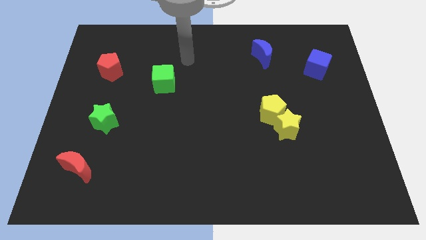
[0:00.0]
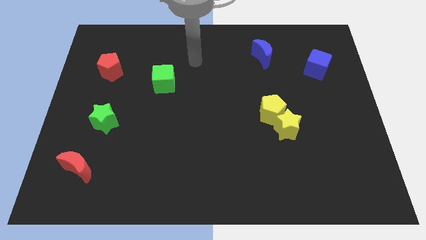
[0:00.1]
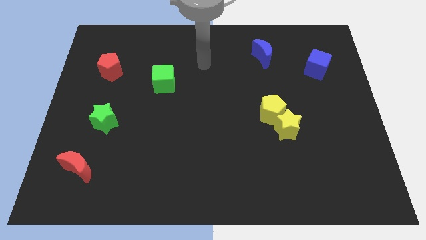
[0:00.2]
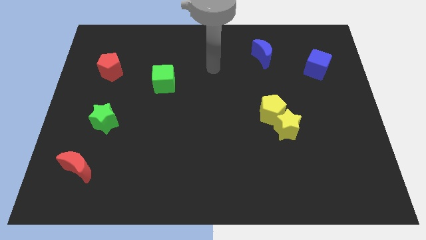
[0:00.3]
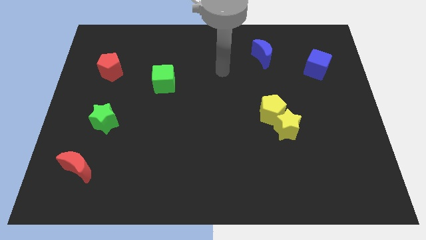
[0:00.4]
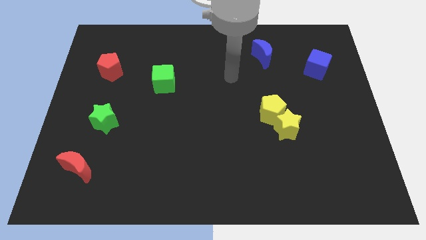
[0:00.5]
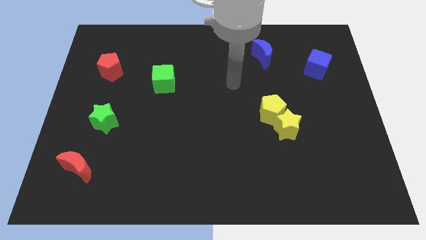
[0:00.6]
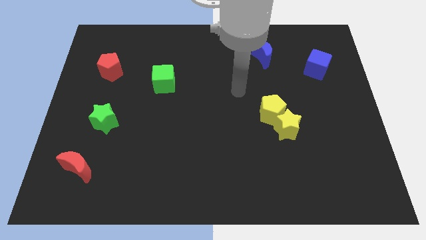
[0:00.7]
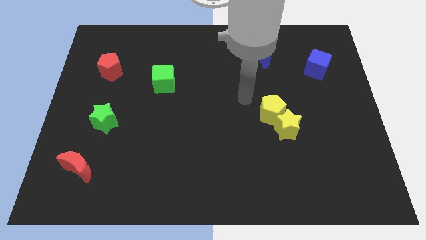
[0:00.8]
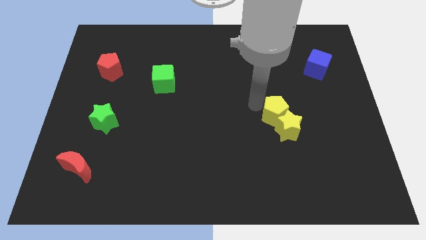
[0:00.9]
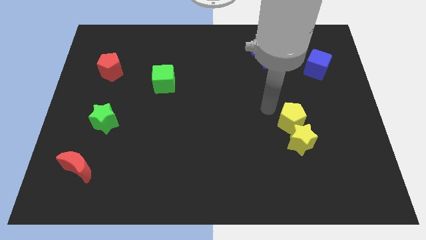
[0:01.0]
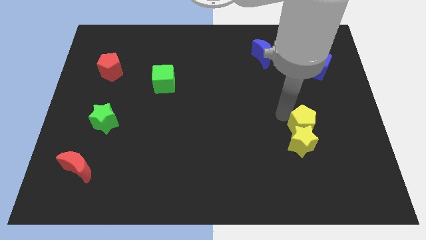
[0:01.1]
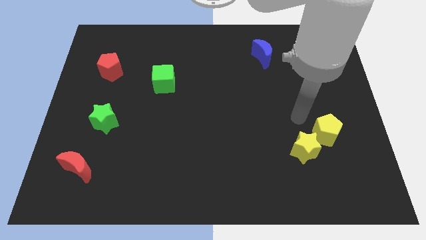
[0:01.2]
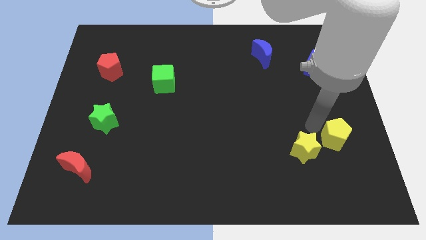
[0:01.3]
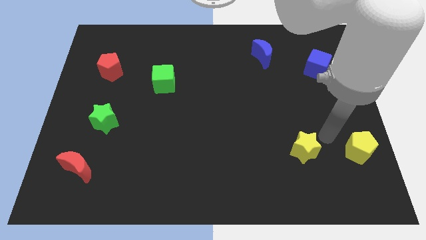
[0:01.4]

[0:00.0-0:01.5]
move the yellow star away from the yellow pentagon

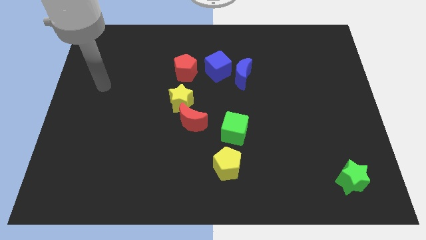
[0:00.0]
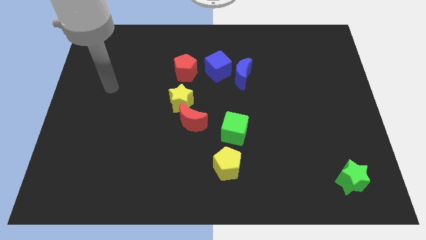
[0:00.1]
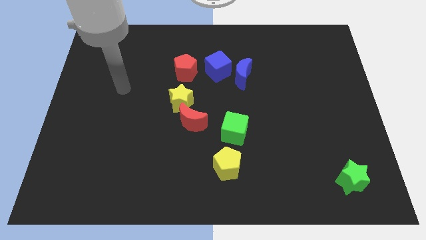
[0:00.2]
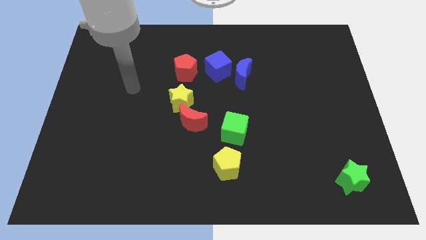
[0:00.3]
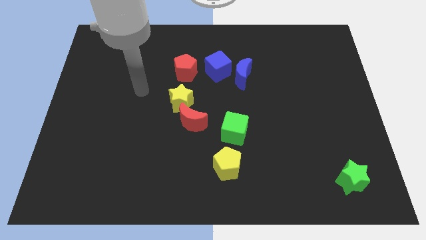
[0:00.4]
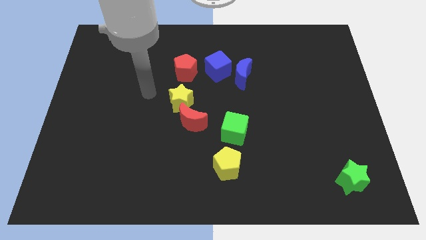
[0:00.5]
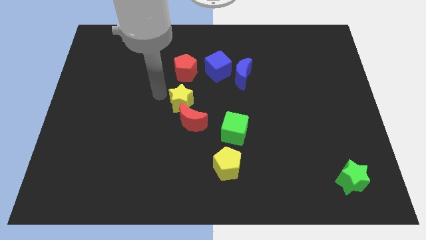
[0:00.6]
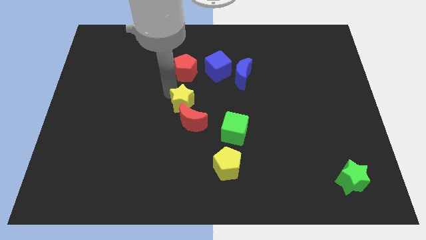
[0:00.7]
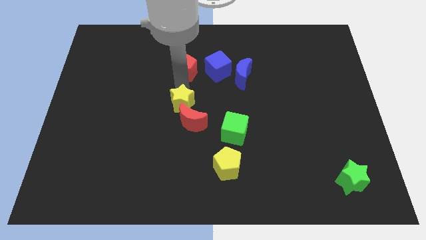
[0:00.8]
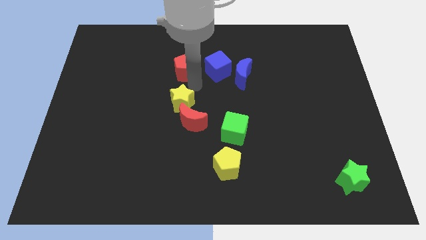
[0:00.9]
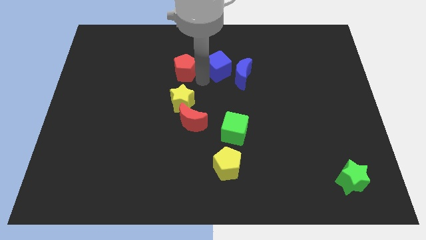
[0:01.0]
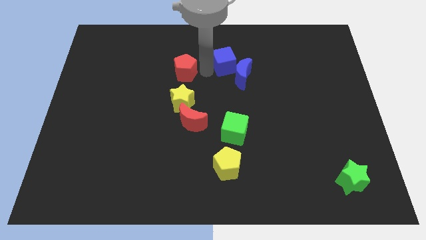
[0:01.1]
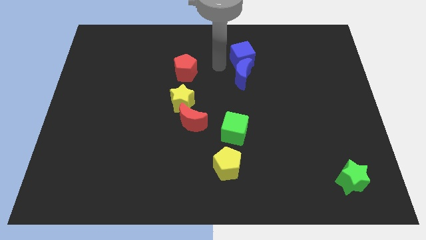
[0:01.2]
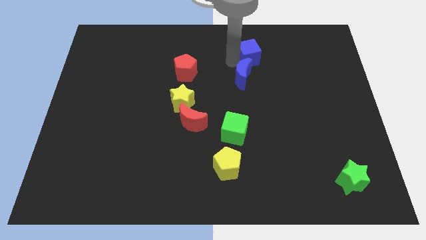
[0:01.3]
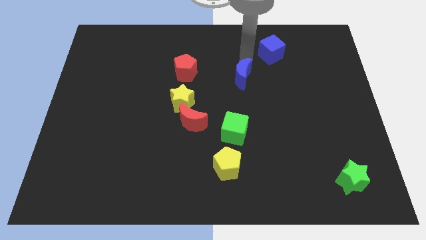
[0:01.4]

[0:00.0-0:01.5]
pull the blue moon apart from the blue cube

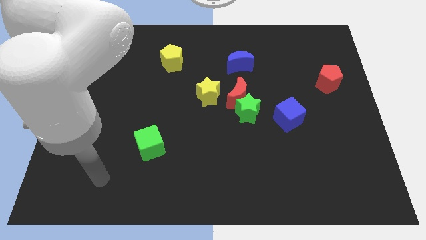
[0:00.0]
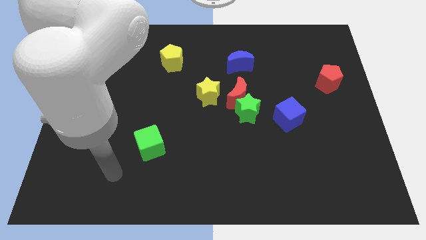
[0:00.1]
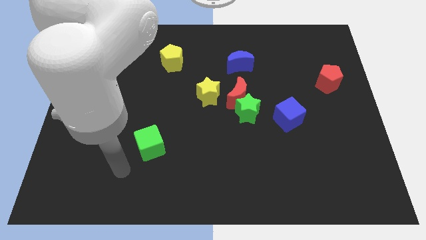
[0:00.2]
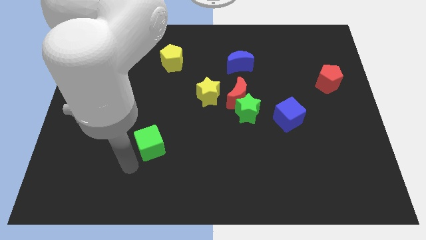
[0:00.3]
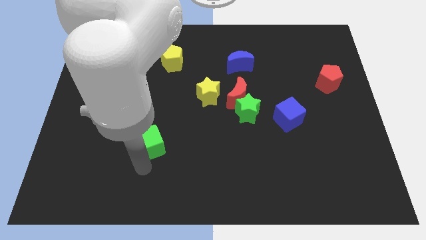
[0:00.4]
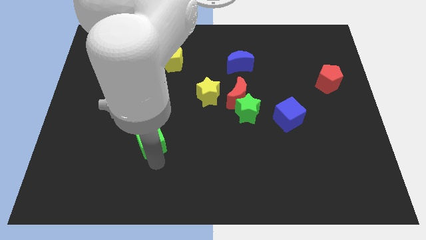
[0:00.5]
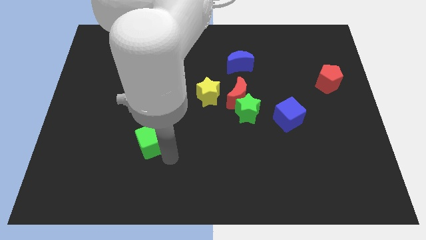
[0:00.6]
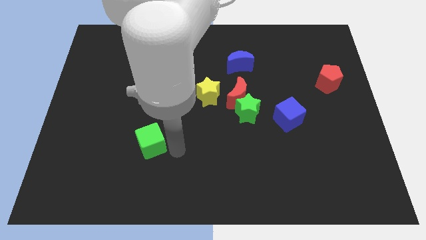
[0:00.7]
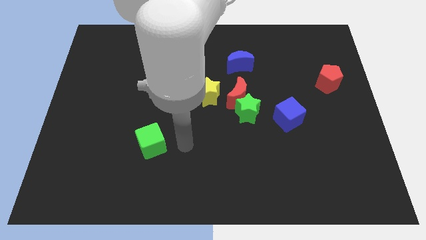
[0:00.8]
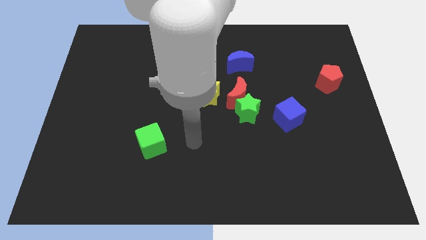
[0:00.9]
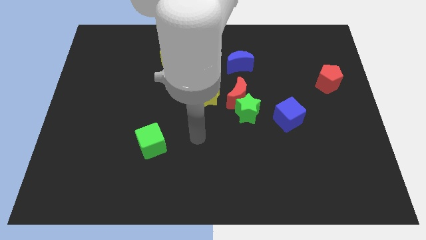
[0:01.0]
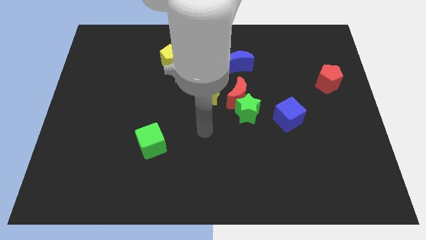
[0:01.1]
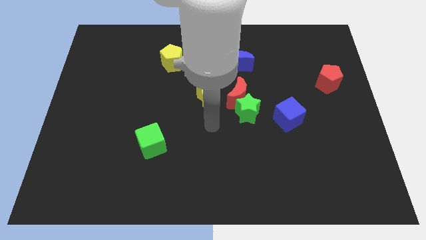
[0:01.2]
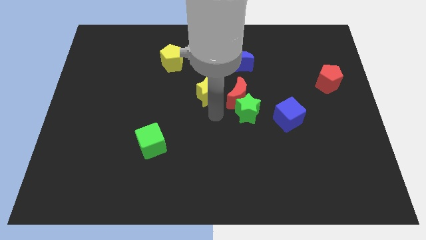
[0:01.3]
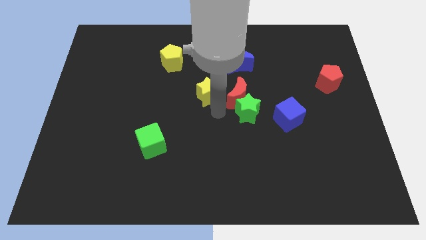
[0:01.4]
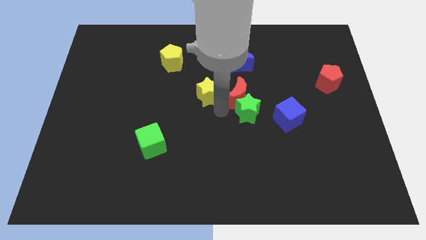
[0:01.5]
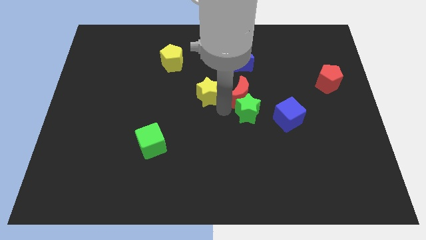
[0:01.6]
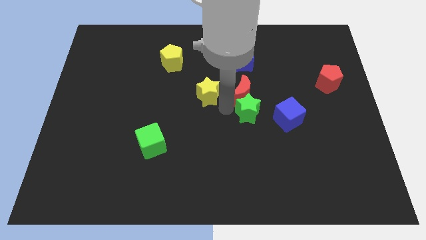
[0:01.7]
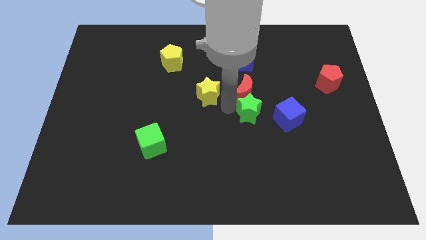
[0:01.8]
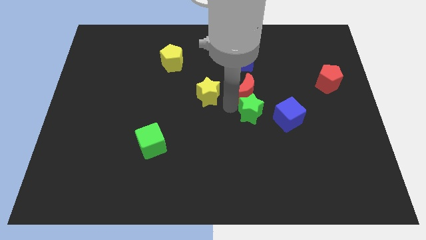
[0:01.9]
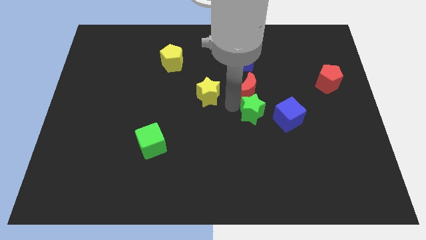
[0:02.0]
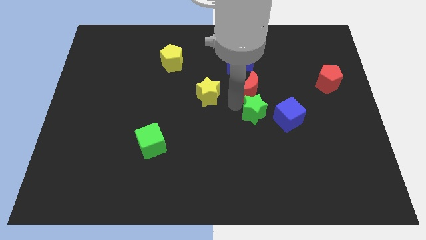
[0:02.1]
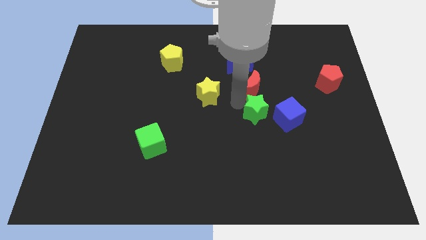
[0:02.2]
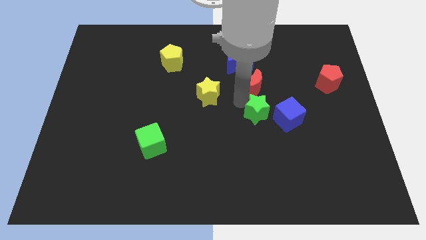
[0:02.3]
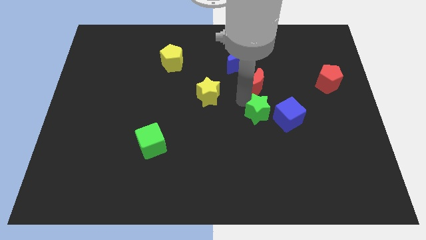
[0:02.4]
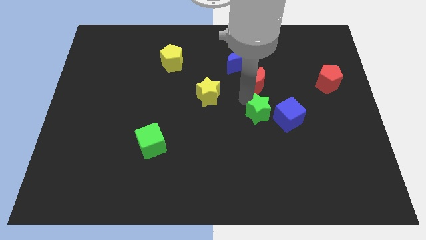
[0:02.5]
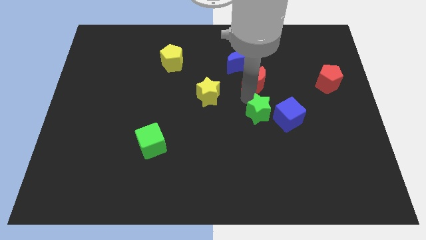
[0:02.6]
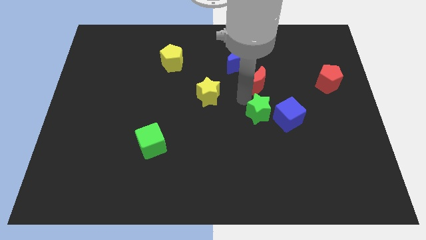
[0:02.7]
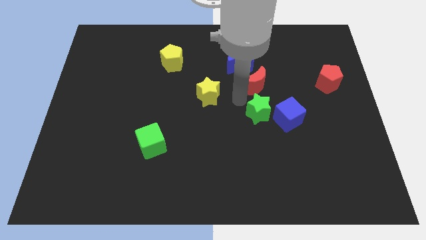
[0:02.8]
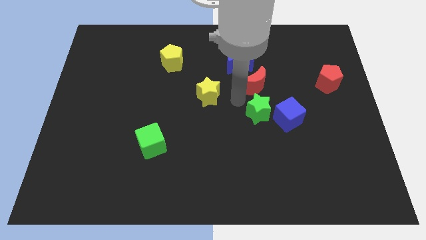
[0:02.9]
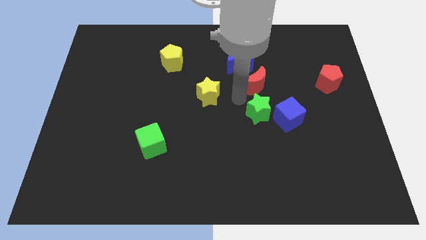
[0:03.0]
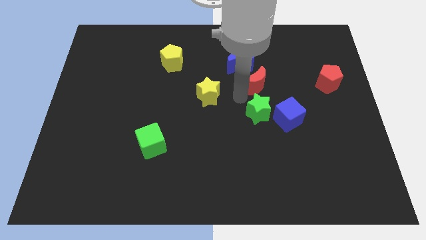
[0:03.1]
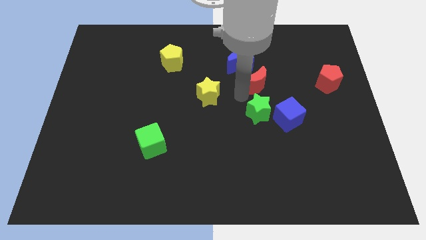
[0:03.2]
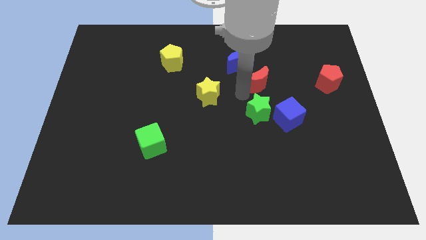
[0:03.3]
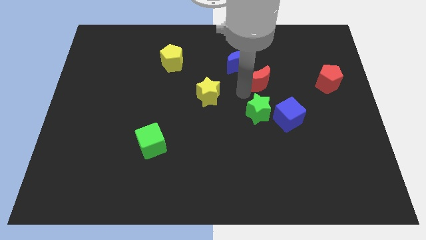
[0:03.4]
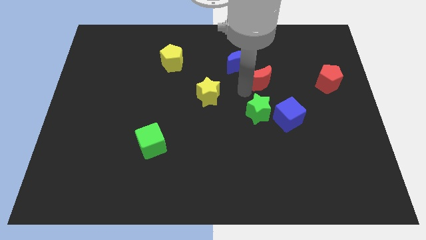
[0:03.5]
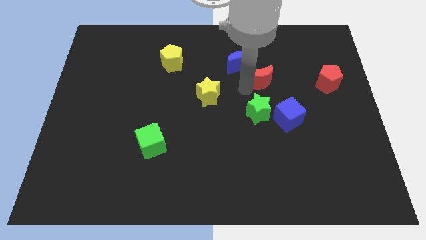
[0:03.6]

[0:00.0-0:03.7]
move the red moon away from the green star and yellow star

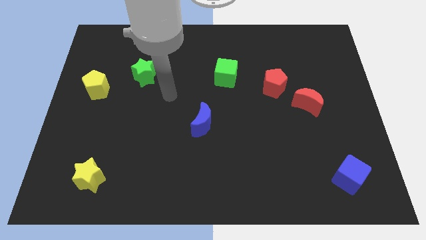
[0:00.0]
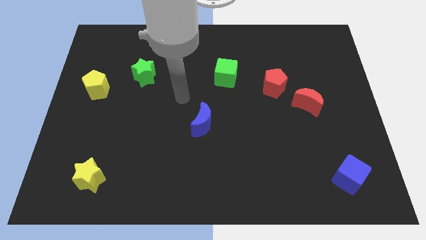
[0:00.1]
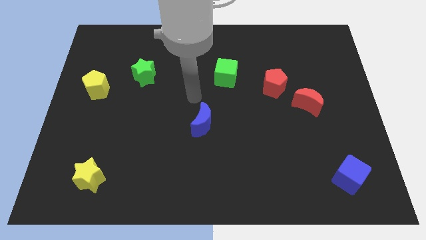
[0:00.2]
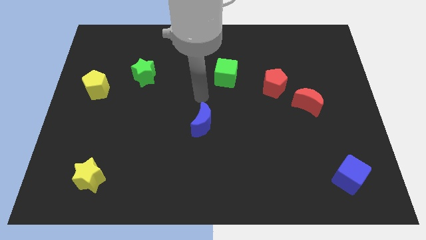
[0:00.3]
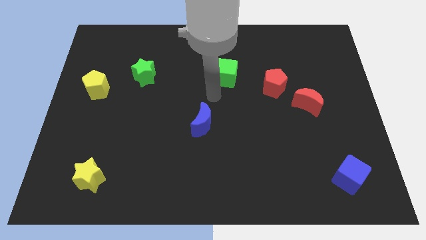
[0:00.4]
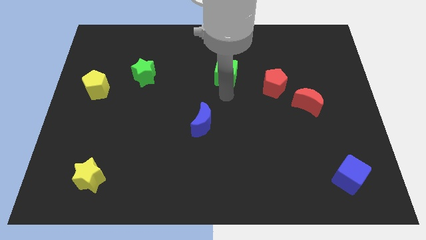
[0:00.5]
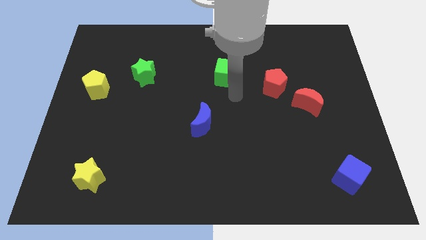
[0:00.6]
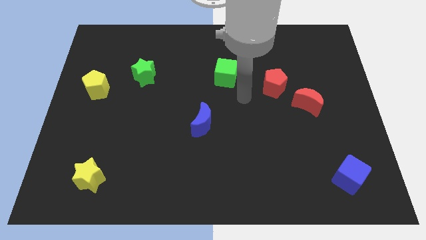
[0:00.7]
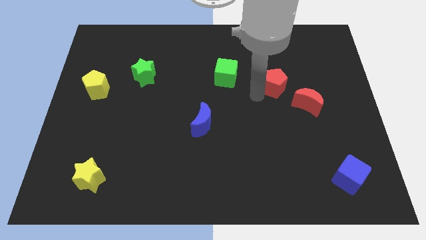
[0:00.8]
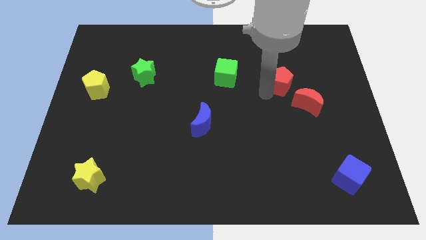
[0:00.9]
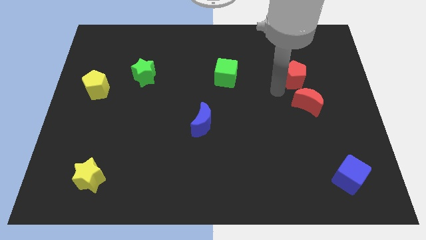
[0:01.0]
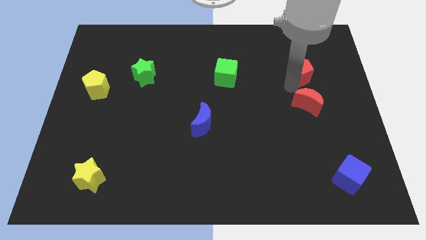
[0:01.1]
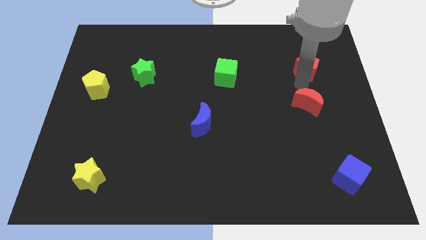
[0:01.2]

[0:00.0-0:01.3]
separate the red moon from the red pentagon

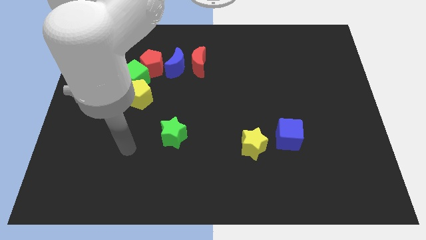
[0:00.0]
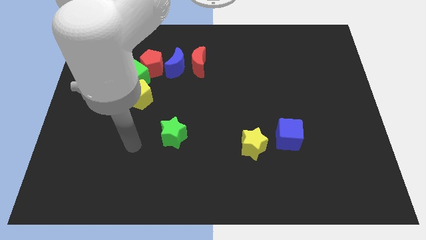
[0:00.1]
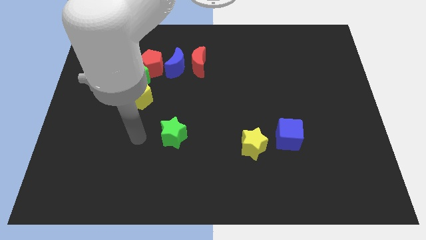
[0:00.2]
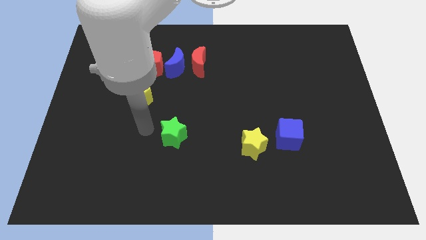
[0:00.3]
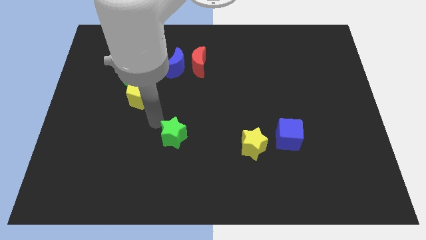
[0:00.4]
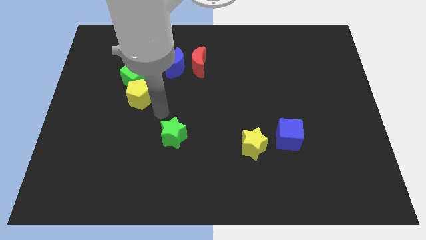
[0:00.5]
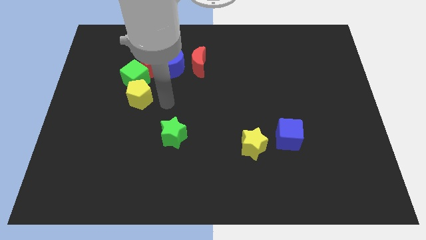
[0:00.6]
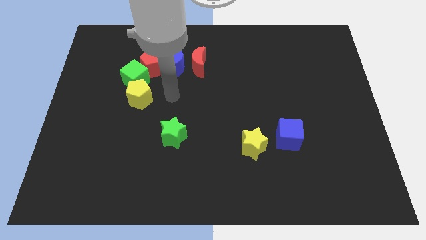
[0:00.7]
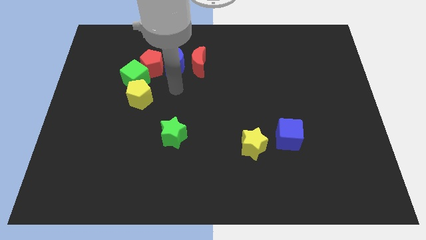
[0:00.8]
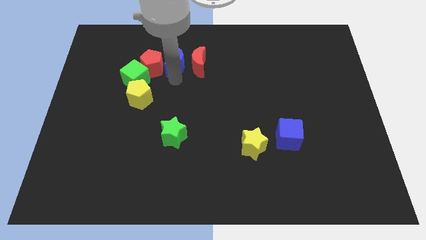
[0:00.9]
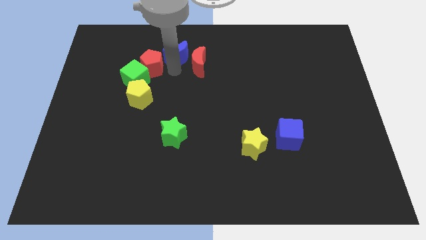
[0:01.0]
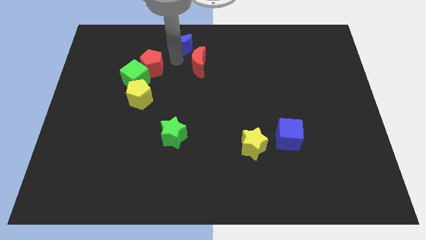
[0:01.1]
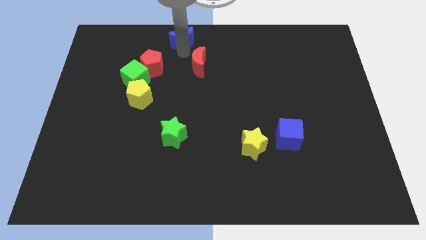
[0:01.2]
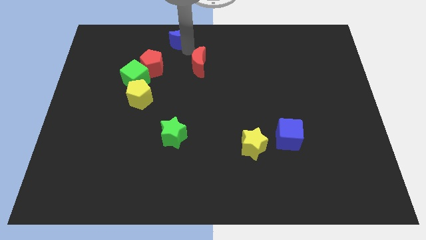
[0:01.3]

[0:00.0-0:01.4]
pull the red moon apart from the blue moon
